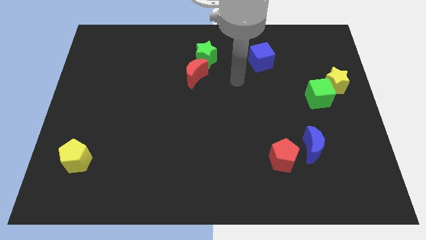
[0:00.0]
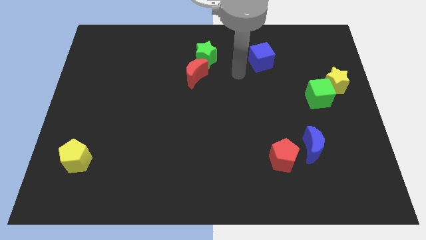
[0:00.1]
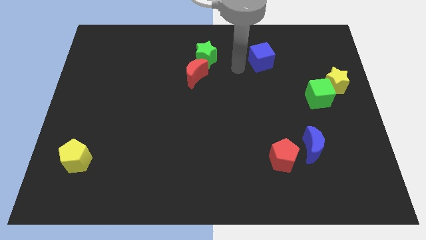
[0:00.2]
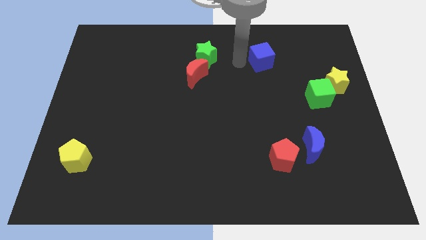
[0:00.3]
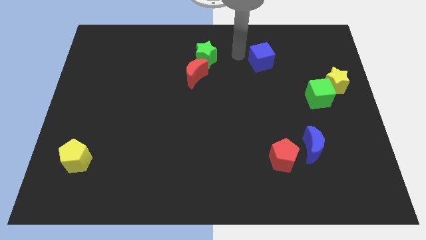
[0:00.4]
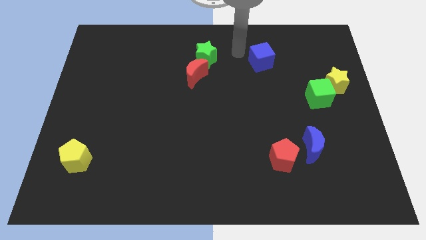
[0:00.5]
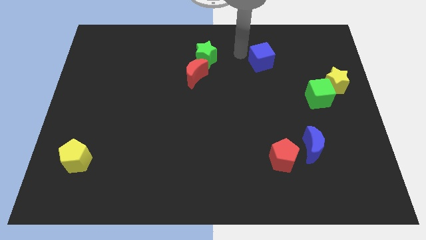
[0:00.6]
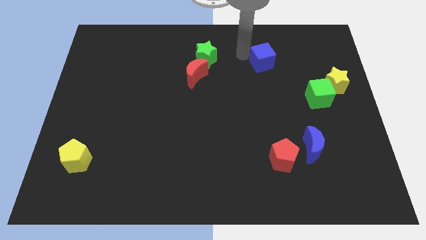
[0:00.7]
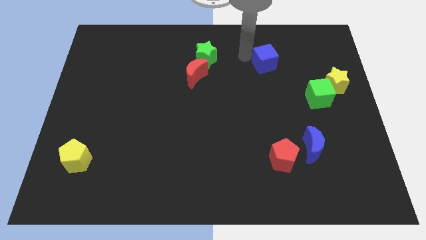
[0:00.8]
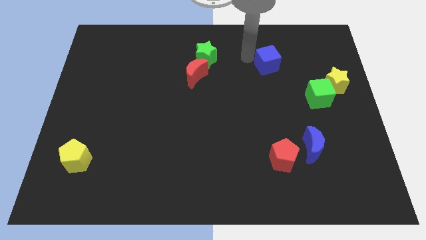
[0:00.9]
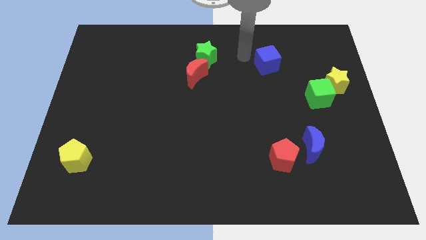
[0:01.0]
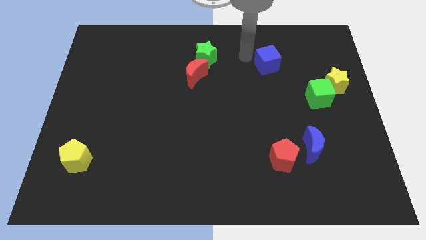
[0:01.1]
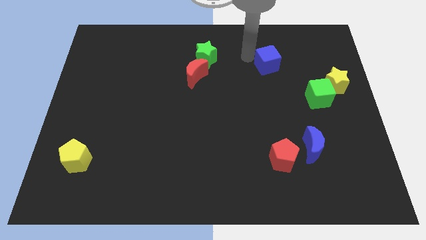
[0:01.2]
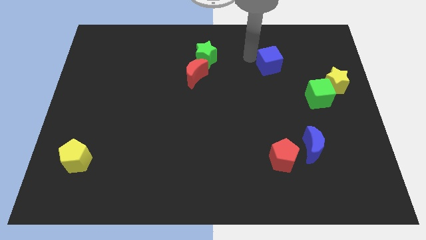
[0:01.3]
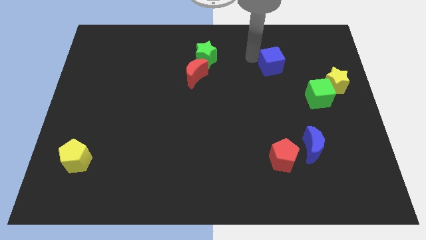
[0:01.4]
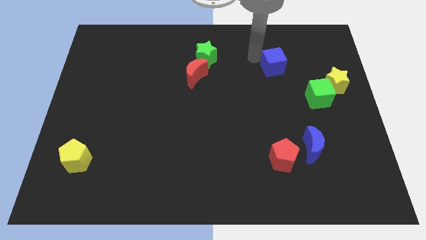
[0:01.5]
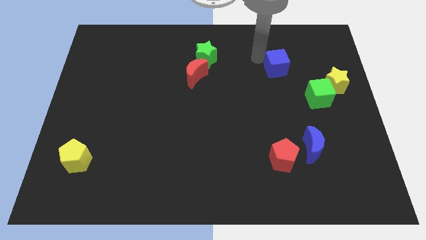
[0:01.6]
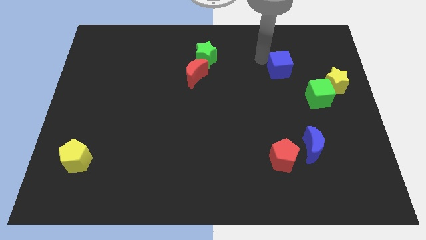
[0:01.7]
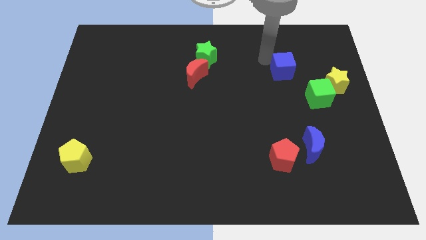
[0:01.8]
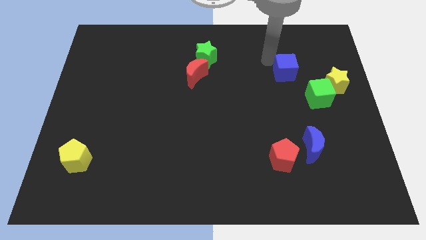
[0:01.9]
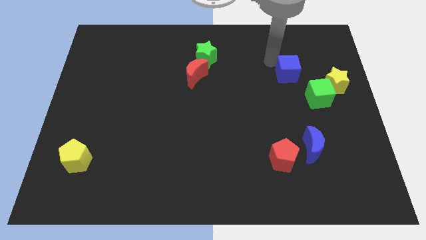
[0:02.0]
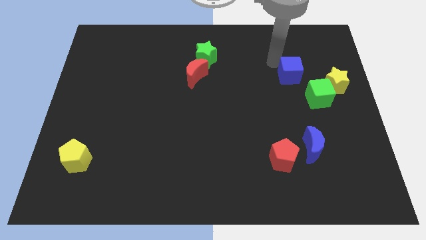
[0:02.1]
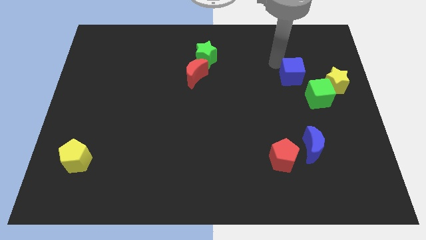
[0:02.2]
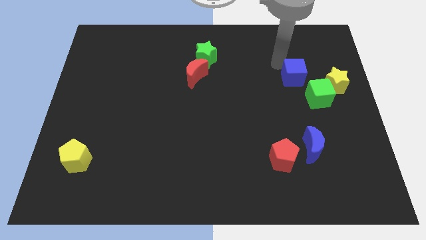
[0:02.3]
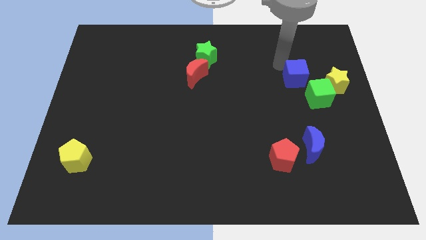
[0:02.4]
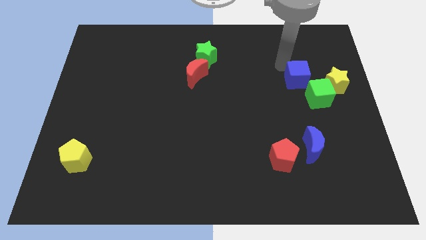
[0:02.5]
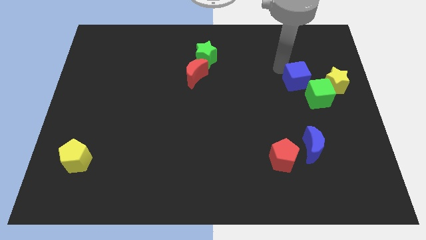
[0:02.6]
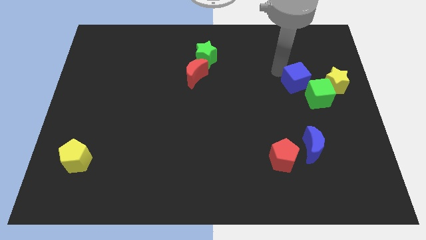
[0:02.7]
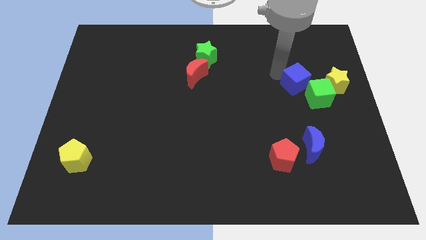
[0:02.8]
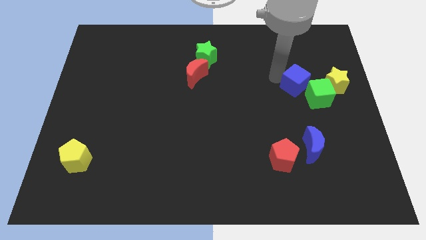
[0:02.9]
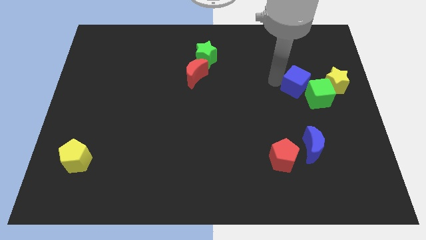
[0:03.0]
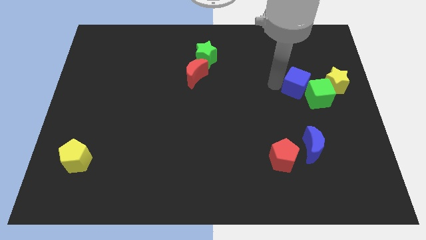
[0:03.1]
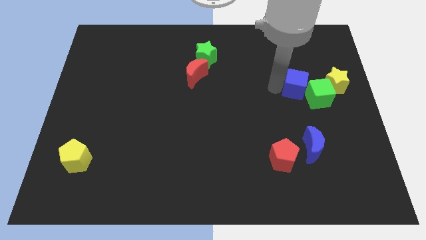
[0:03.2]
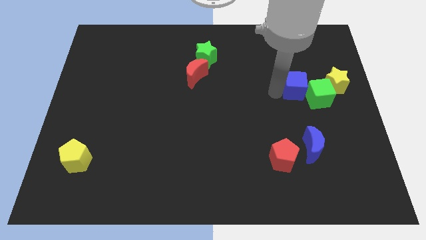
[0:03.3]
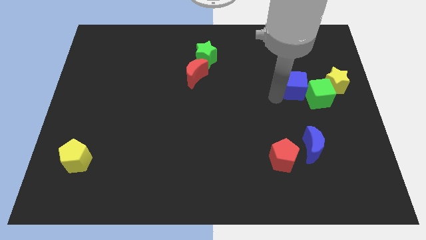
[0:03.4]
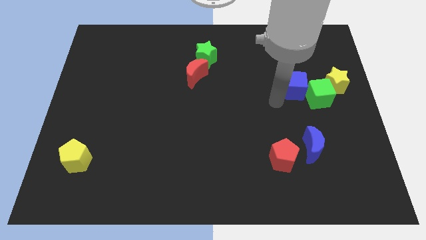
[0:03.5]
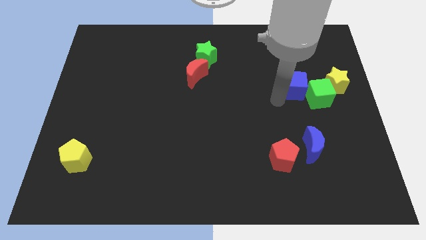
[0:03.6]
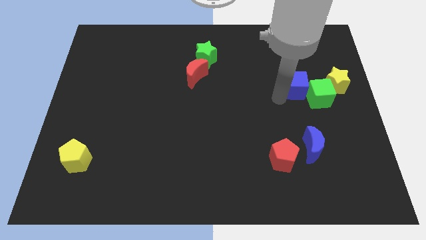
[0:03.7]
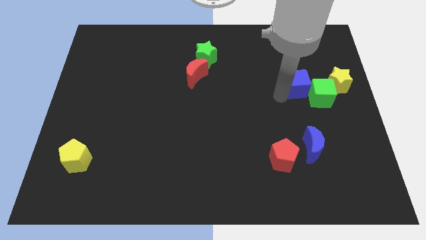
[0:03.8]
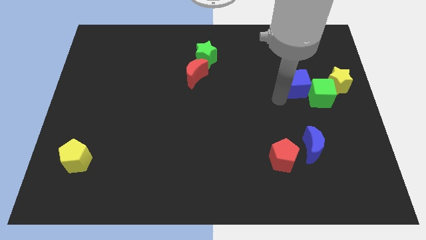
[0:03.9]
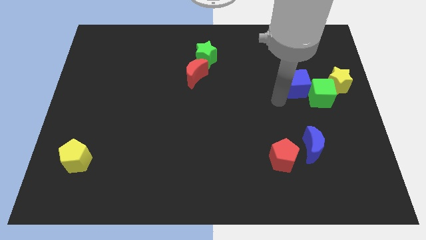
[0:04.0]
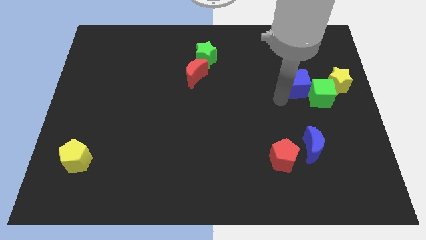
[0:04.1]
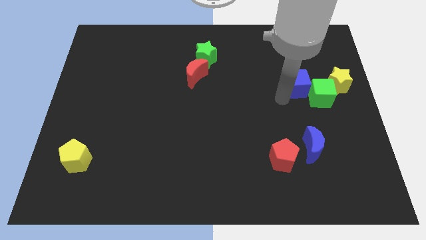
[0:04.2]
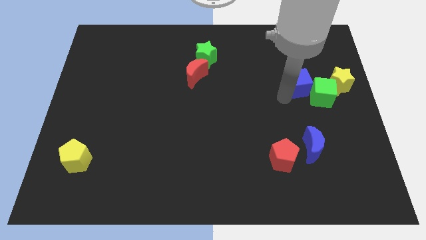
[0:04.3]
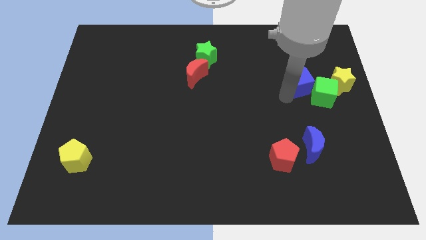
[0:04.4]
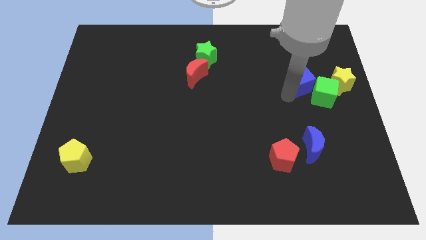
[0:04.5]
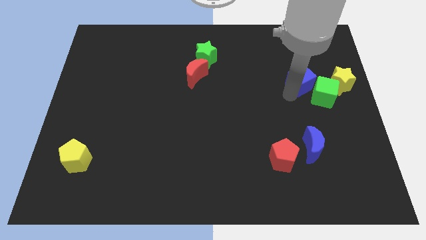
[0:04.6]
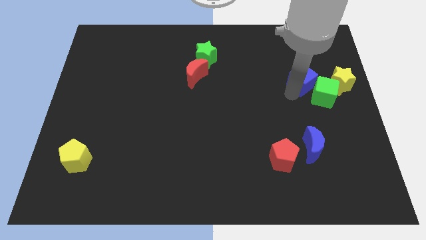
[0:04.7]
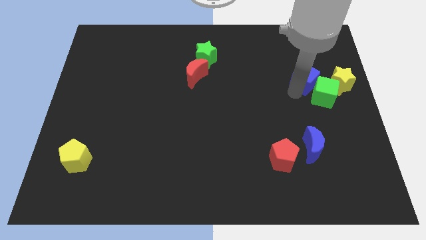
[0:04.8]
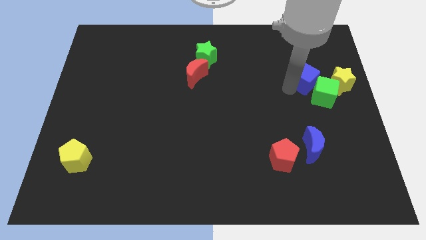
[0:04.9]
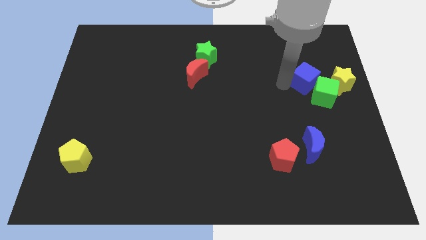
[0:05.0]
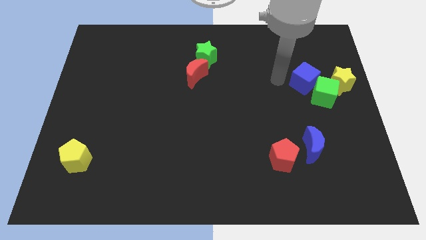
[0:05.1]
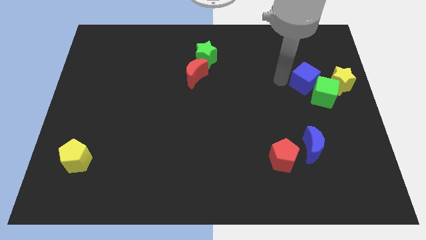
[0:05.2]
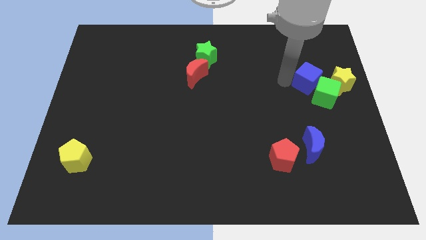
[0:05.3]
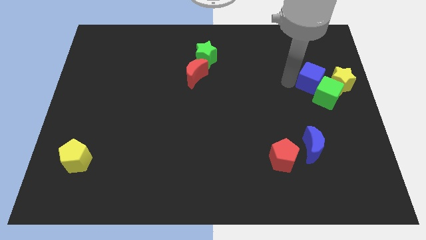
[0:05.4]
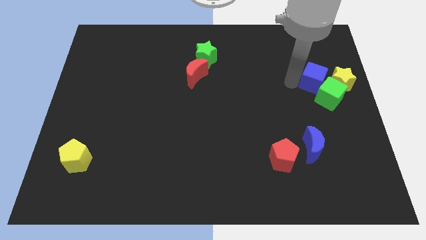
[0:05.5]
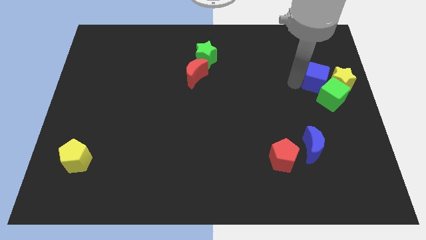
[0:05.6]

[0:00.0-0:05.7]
slide the blue cube towards the yellow star

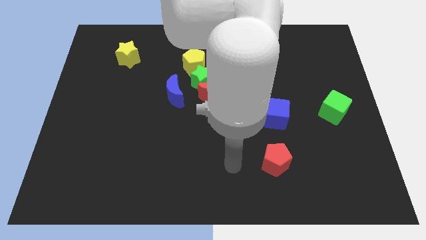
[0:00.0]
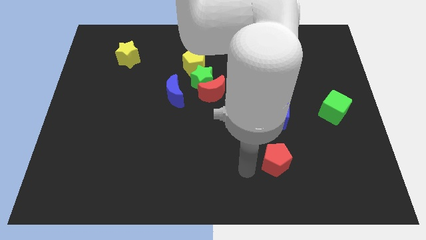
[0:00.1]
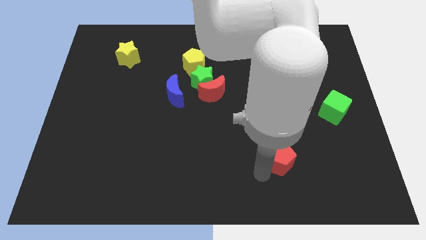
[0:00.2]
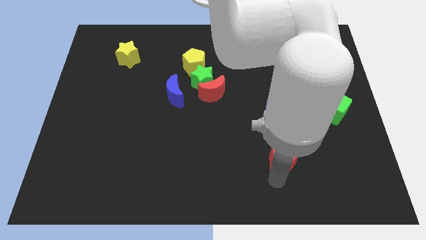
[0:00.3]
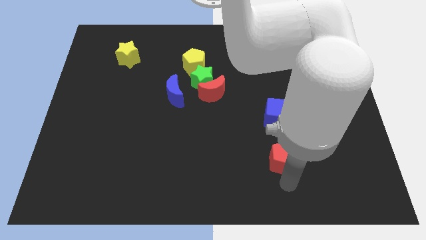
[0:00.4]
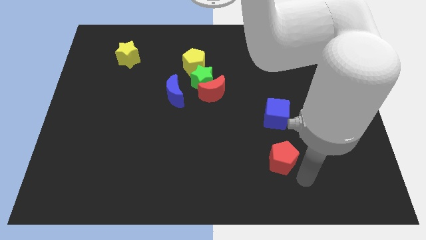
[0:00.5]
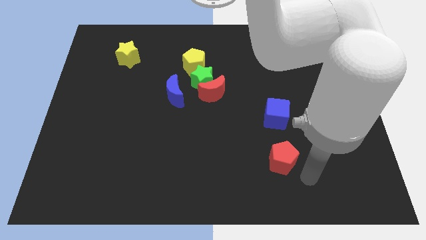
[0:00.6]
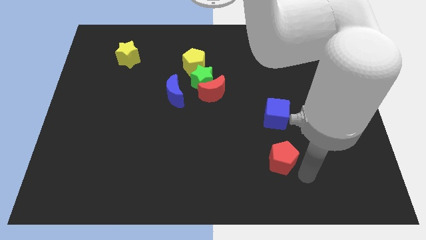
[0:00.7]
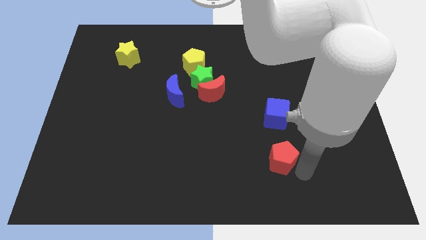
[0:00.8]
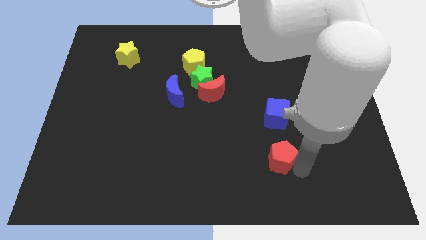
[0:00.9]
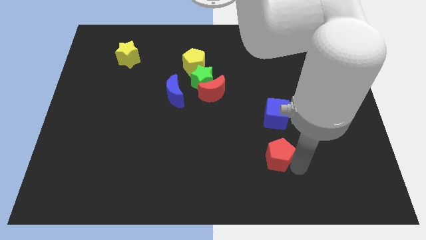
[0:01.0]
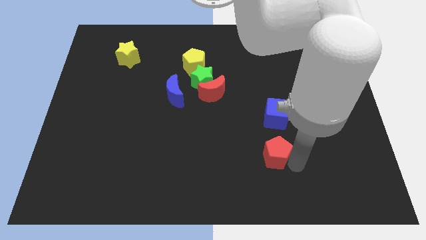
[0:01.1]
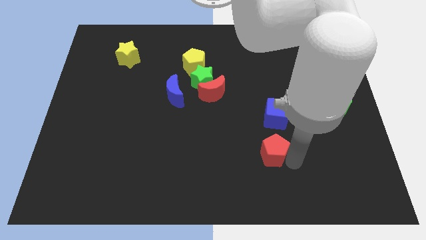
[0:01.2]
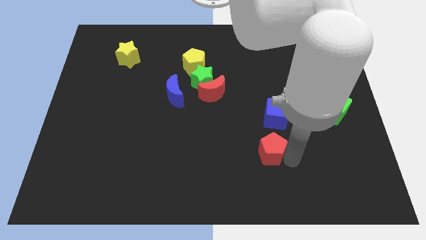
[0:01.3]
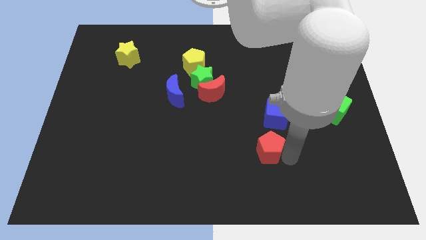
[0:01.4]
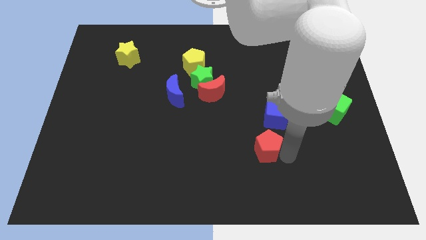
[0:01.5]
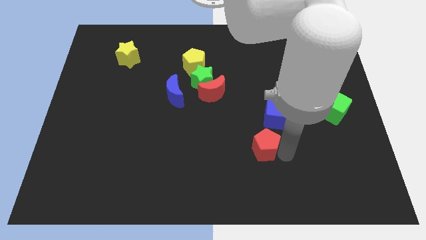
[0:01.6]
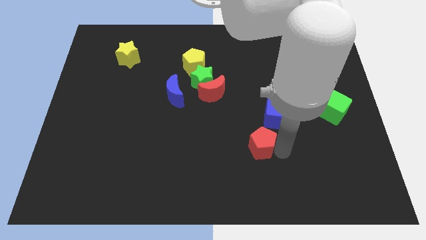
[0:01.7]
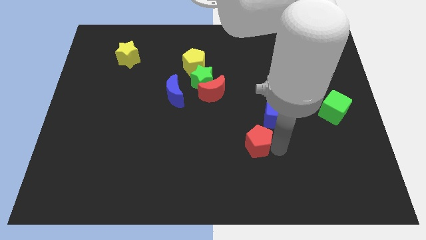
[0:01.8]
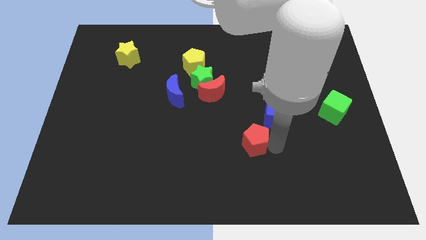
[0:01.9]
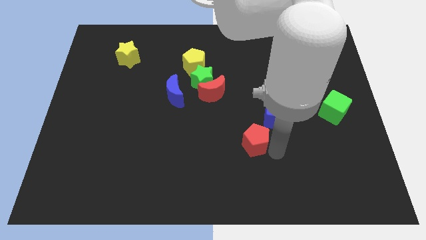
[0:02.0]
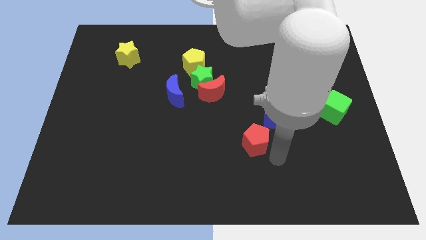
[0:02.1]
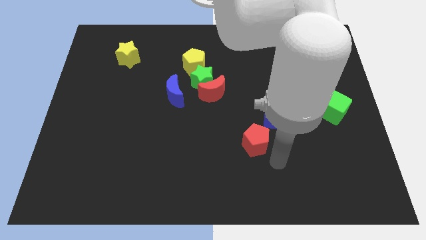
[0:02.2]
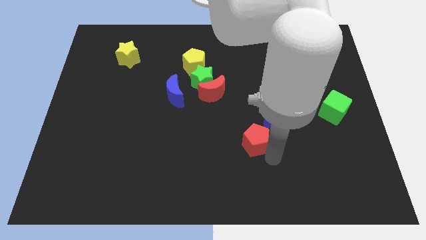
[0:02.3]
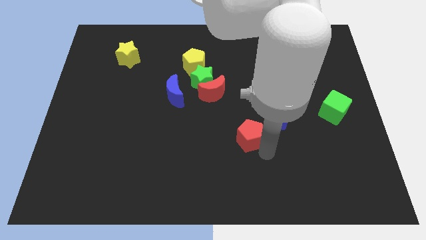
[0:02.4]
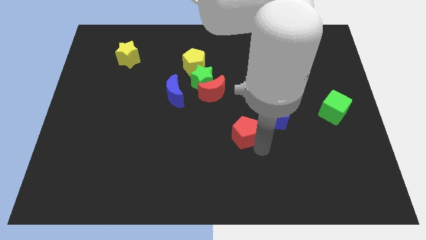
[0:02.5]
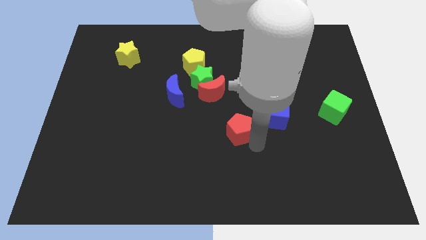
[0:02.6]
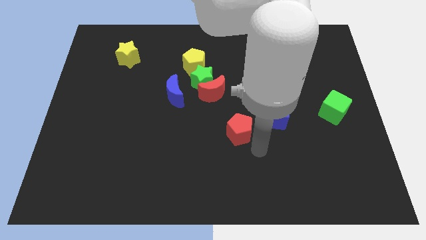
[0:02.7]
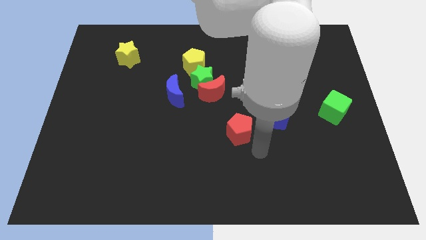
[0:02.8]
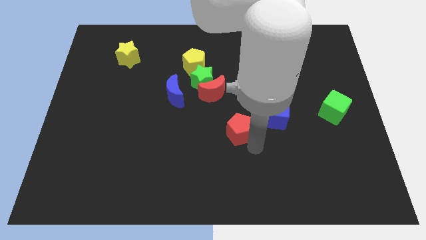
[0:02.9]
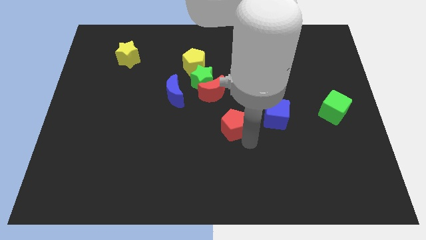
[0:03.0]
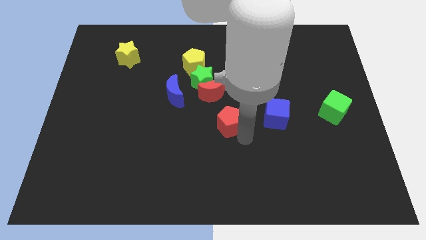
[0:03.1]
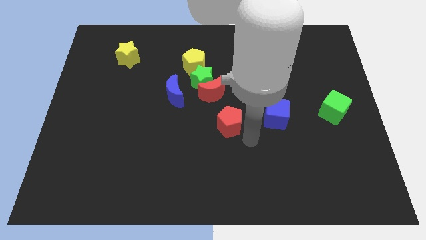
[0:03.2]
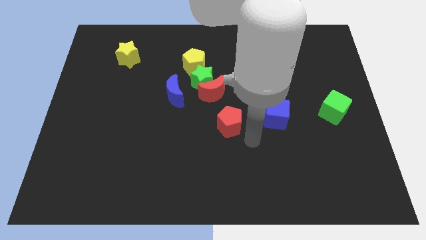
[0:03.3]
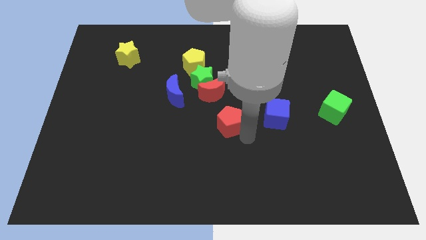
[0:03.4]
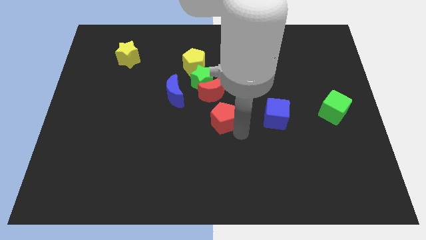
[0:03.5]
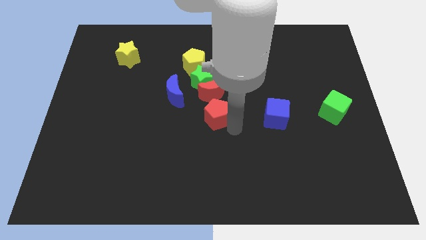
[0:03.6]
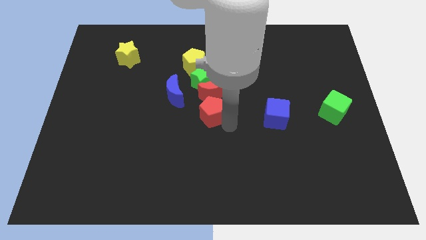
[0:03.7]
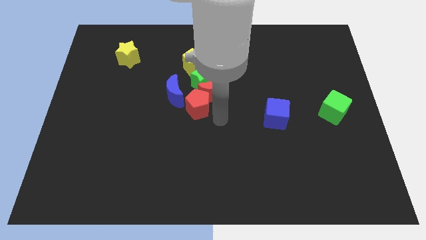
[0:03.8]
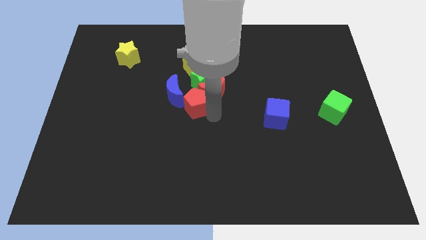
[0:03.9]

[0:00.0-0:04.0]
slide the red pentagon next to the blue moon
